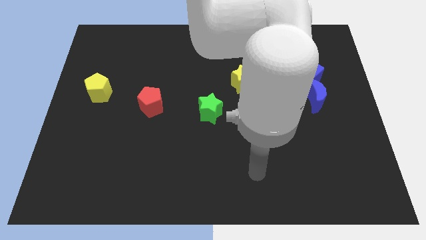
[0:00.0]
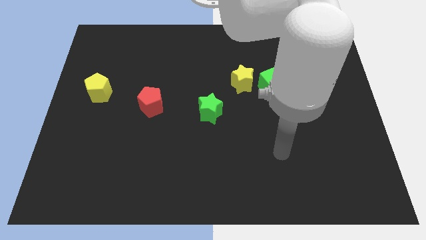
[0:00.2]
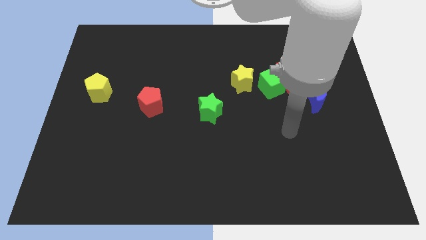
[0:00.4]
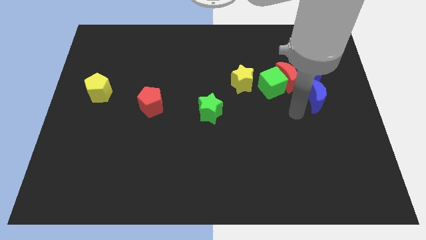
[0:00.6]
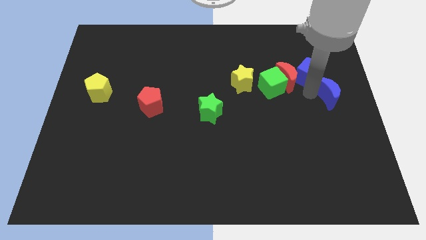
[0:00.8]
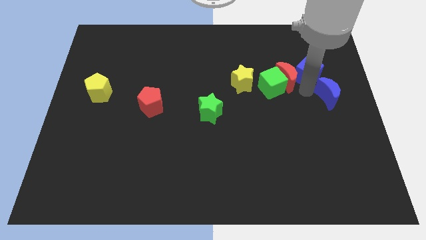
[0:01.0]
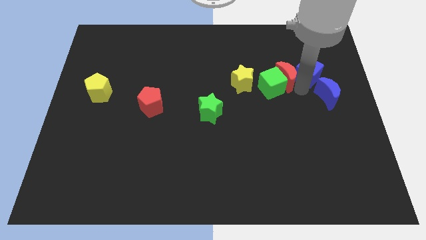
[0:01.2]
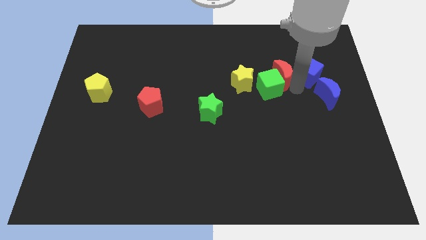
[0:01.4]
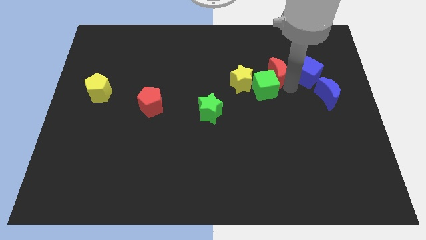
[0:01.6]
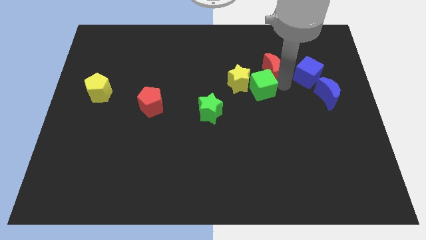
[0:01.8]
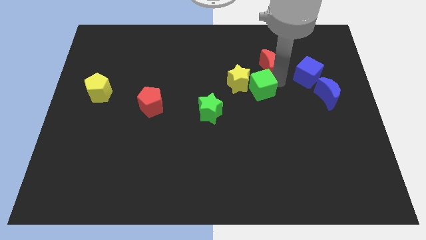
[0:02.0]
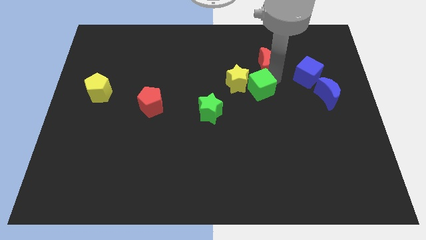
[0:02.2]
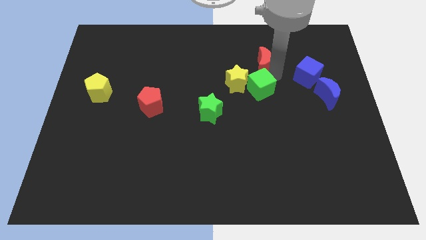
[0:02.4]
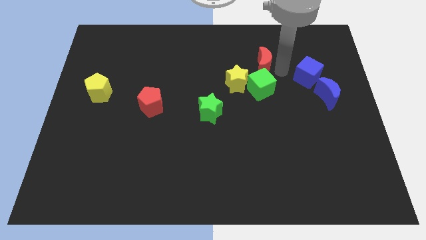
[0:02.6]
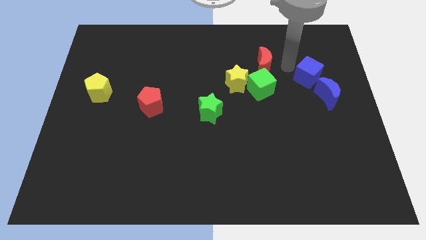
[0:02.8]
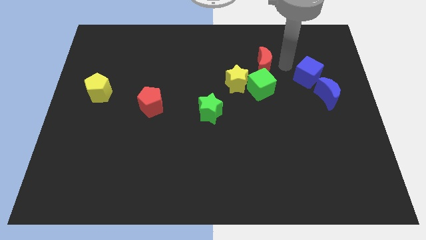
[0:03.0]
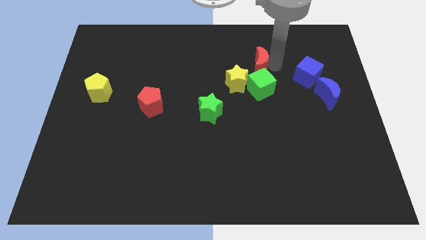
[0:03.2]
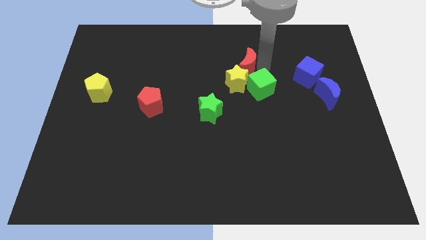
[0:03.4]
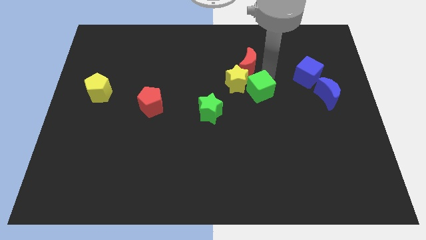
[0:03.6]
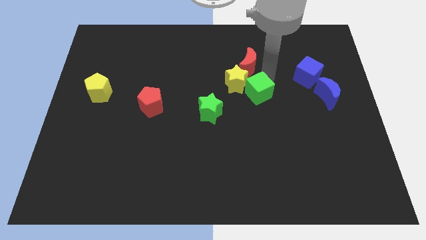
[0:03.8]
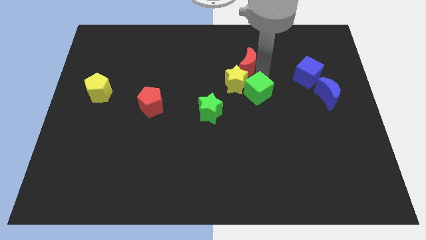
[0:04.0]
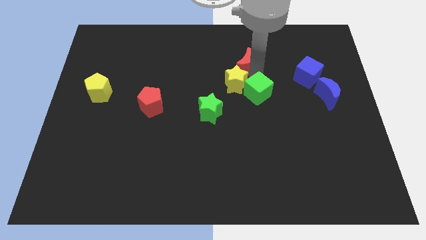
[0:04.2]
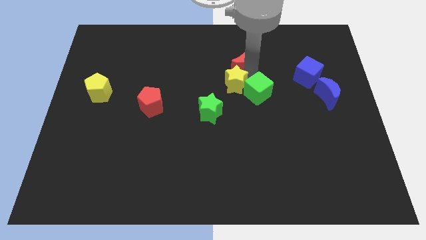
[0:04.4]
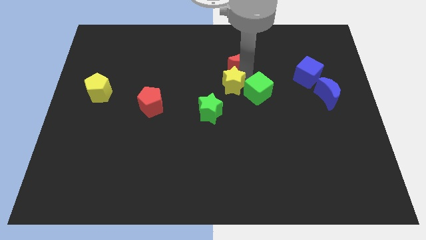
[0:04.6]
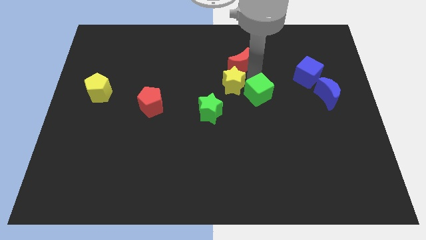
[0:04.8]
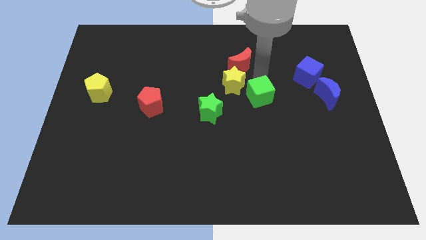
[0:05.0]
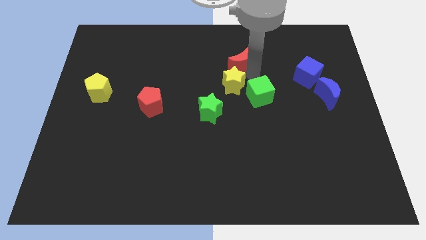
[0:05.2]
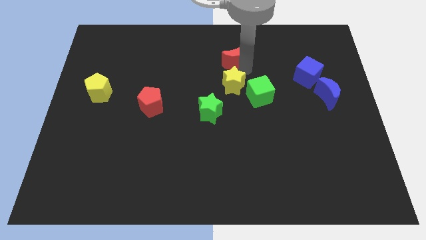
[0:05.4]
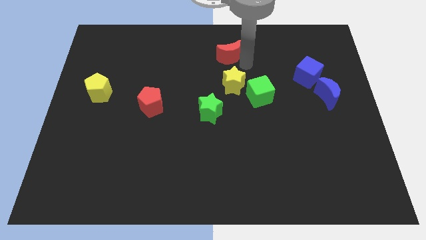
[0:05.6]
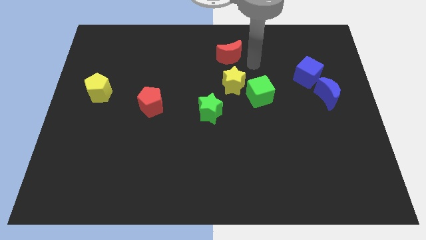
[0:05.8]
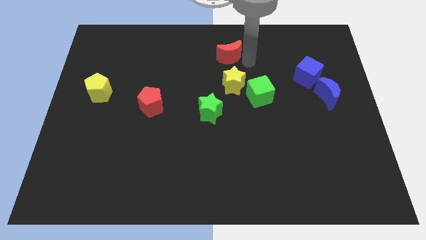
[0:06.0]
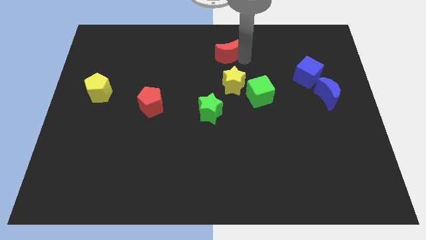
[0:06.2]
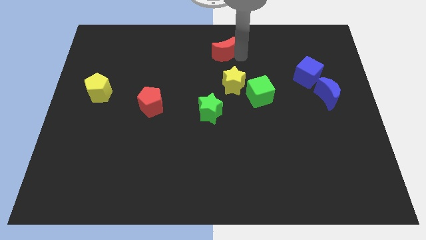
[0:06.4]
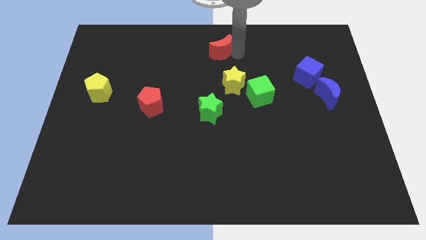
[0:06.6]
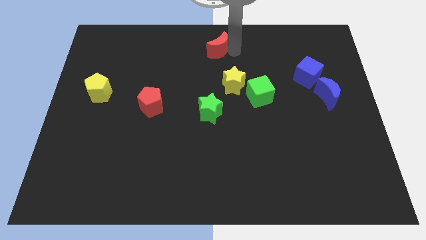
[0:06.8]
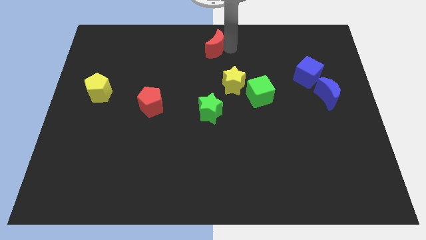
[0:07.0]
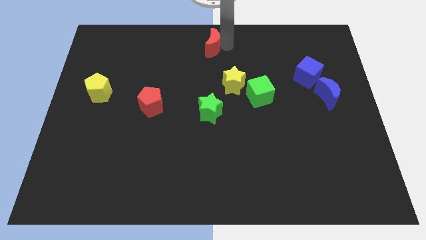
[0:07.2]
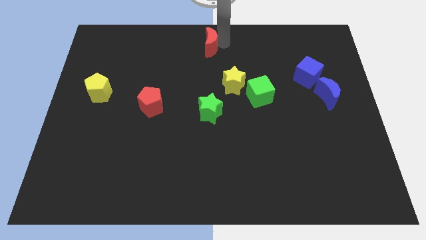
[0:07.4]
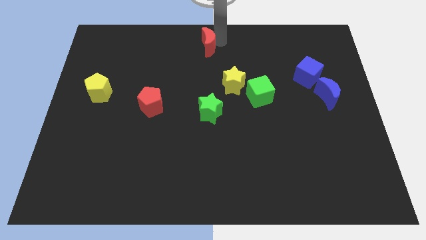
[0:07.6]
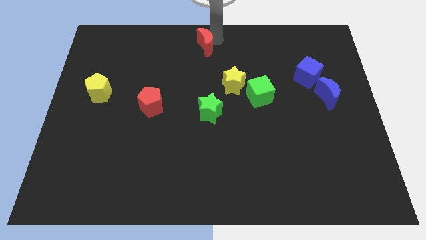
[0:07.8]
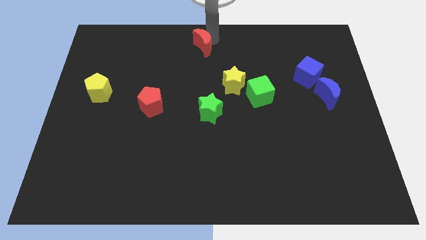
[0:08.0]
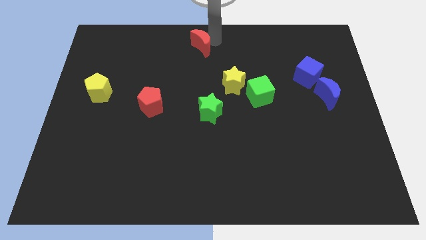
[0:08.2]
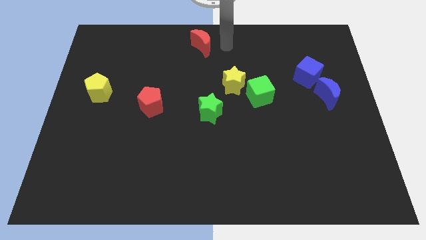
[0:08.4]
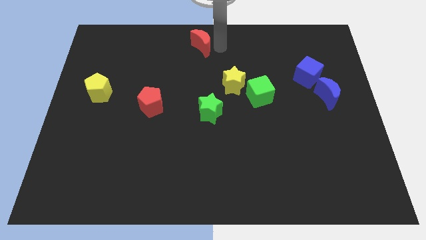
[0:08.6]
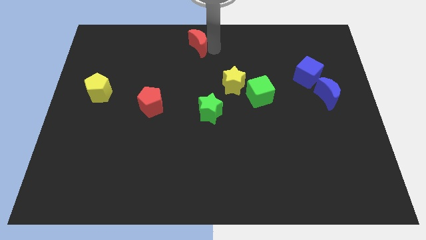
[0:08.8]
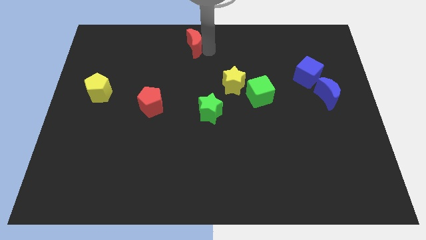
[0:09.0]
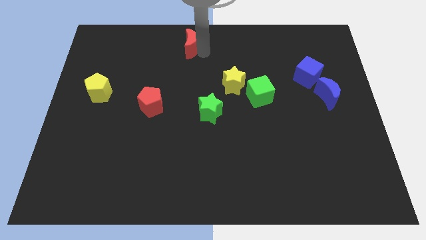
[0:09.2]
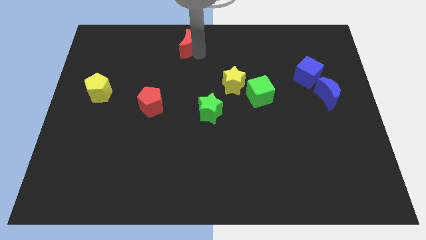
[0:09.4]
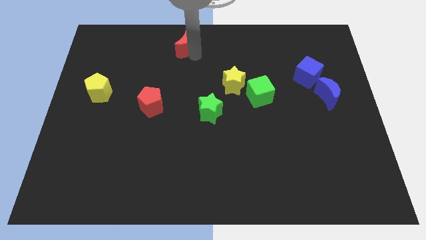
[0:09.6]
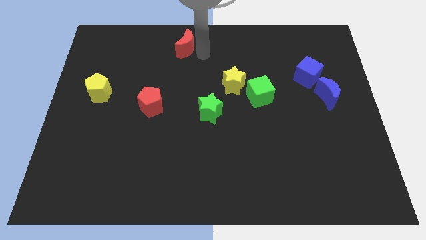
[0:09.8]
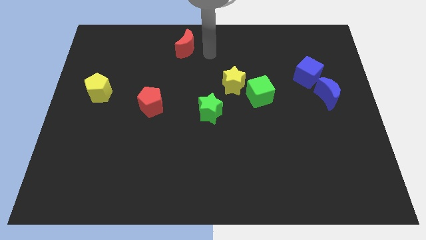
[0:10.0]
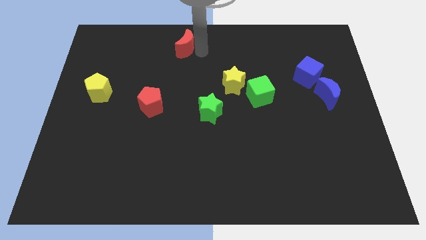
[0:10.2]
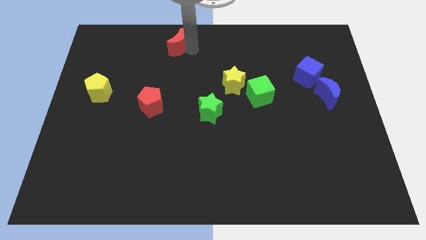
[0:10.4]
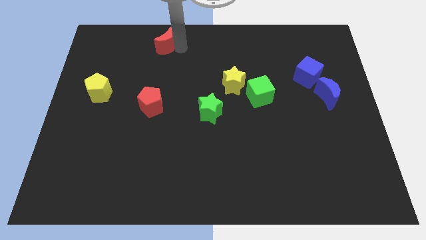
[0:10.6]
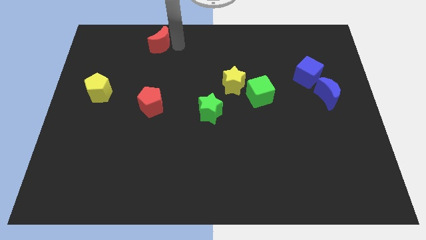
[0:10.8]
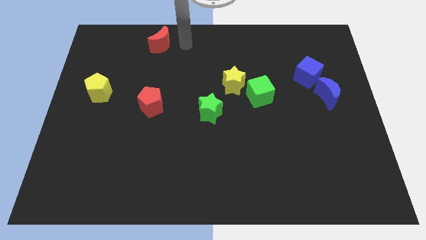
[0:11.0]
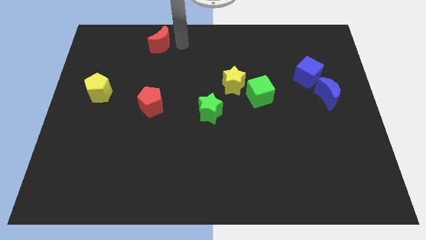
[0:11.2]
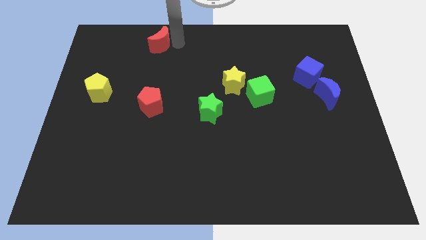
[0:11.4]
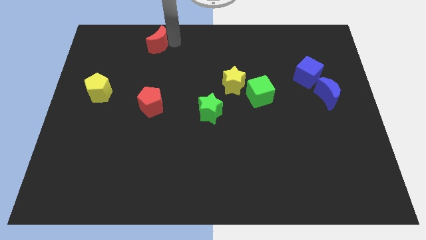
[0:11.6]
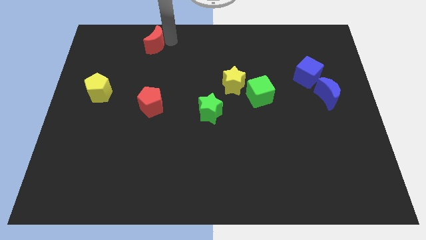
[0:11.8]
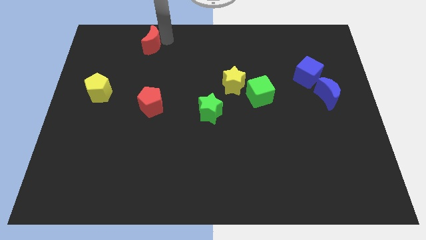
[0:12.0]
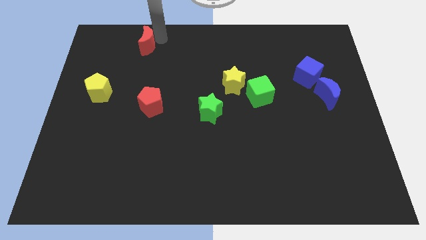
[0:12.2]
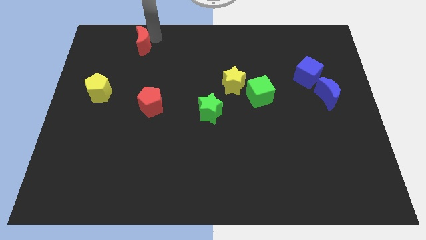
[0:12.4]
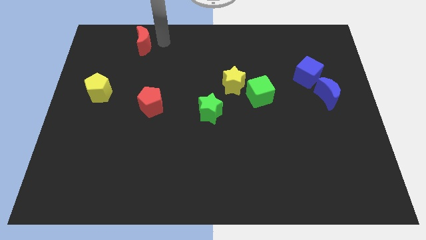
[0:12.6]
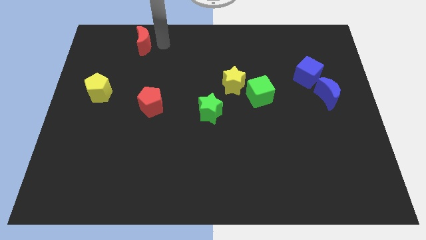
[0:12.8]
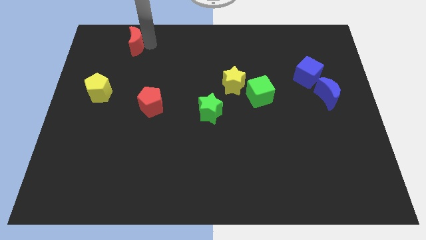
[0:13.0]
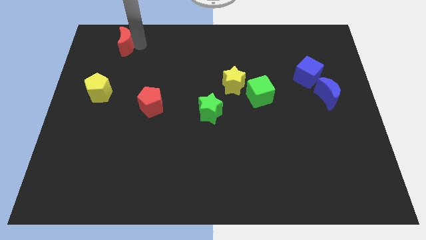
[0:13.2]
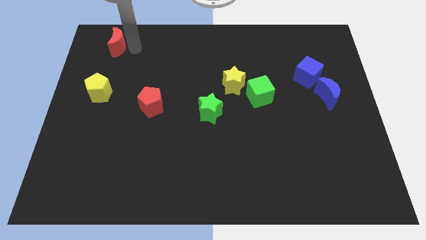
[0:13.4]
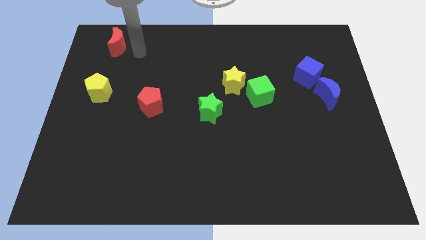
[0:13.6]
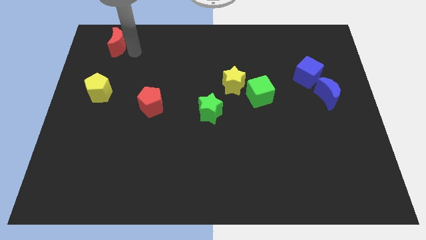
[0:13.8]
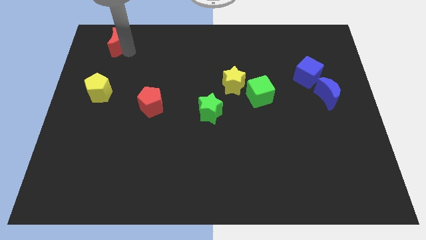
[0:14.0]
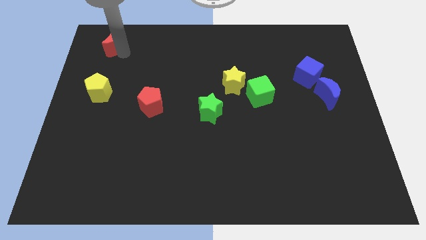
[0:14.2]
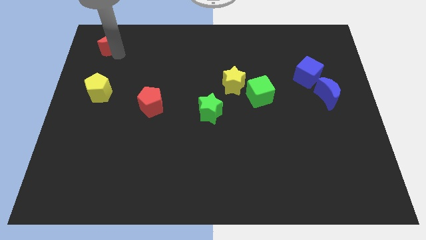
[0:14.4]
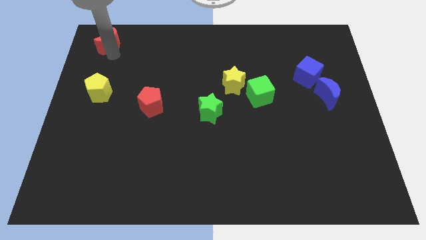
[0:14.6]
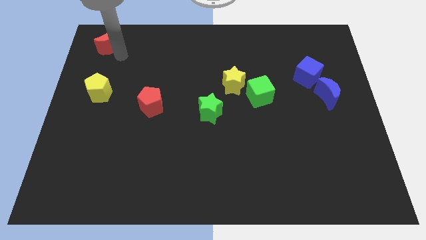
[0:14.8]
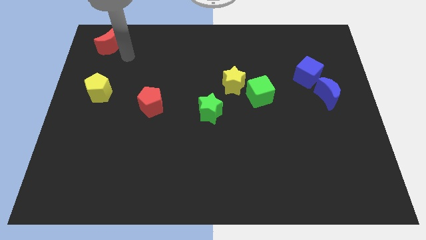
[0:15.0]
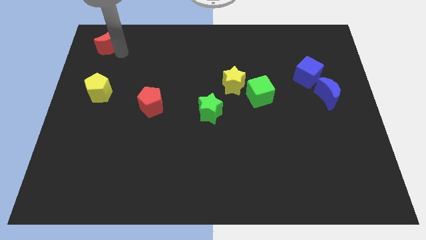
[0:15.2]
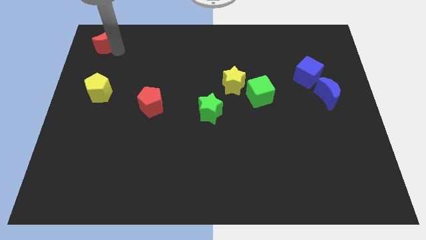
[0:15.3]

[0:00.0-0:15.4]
move the red moon to the top left
